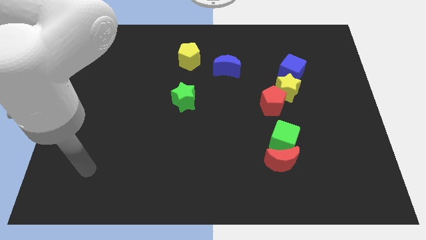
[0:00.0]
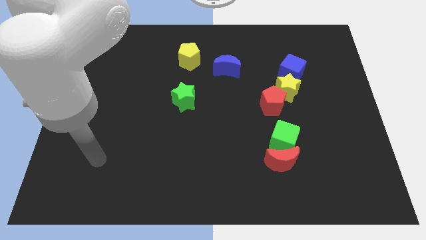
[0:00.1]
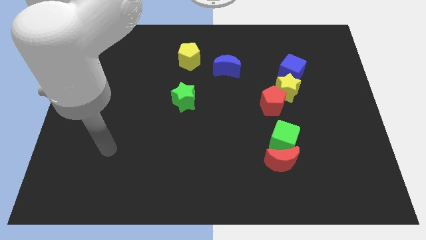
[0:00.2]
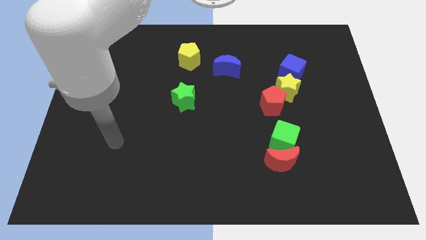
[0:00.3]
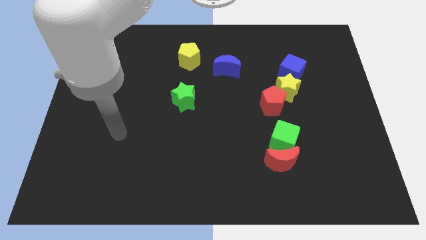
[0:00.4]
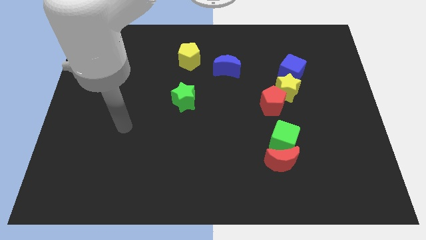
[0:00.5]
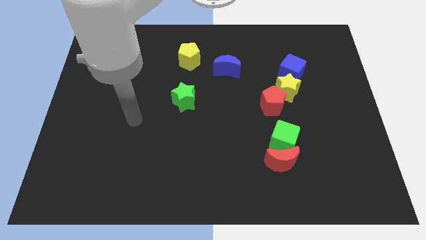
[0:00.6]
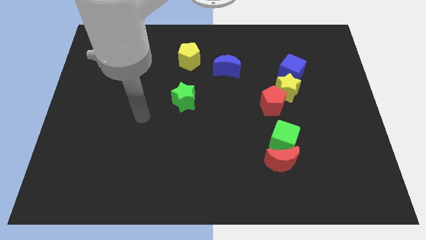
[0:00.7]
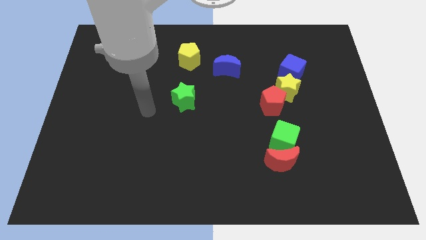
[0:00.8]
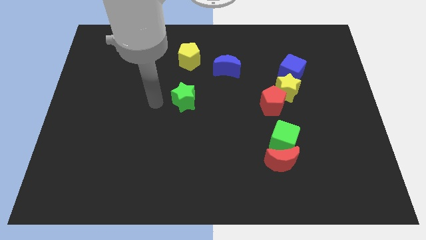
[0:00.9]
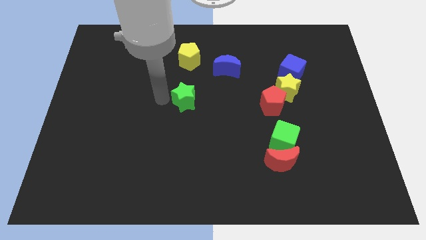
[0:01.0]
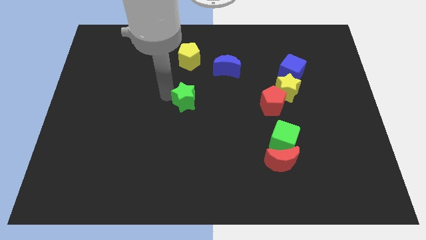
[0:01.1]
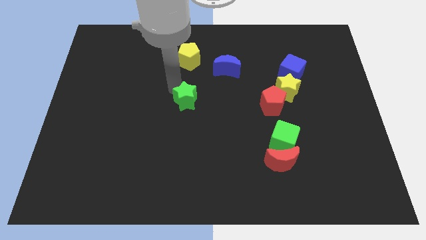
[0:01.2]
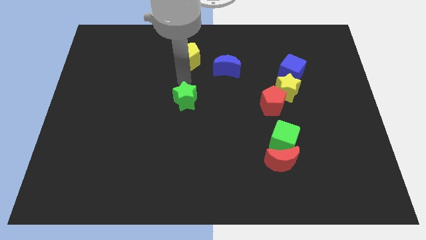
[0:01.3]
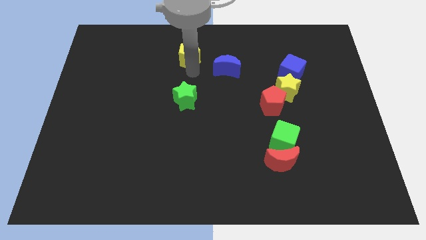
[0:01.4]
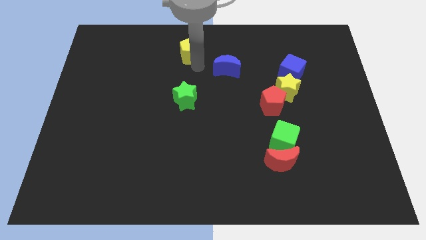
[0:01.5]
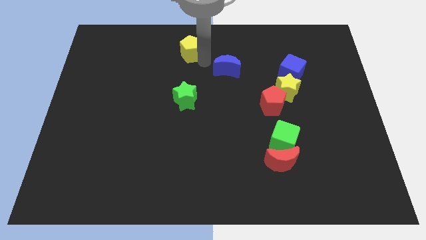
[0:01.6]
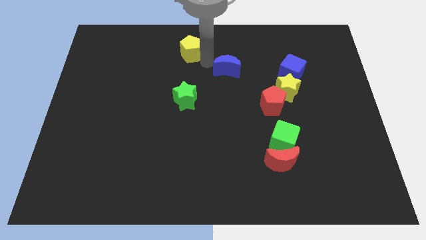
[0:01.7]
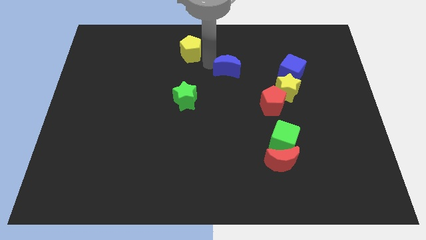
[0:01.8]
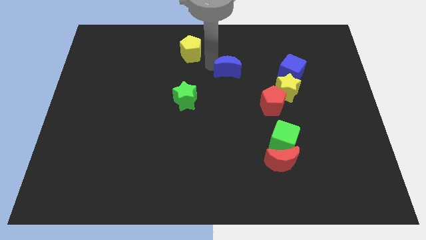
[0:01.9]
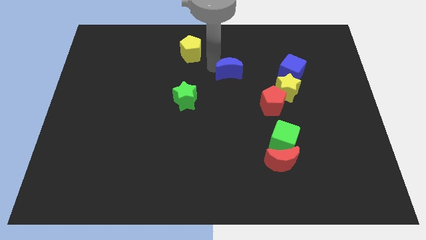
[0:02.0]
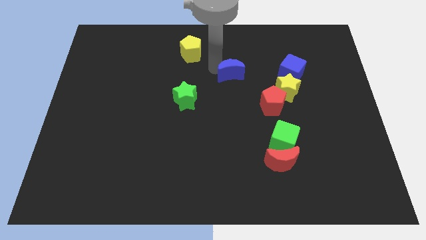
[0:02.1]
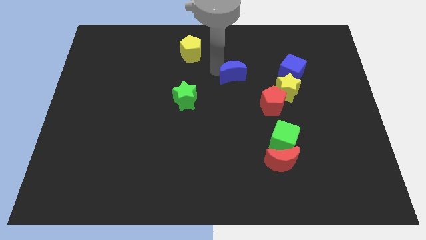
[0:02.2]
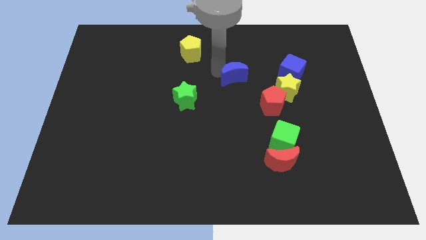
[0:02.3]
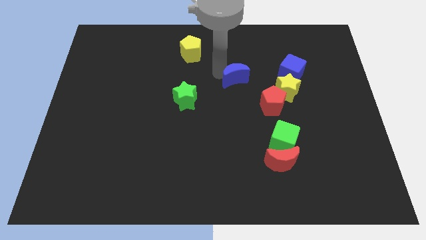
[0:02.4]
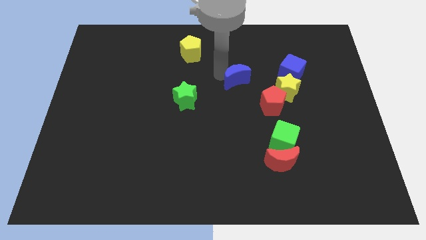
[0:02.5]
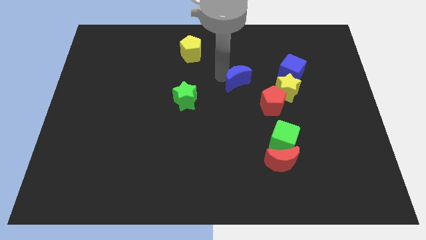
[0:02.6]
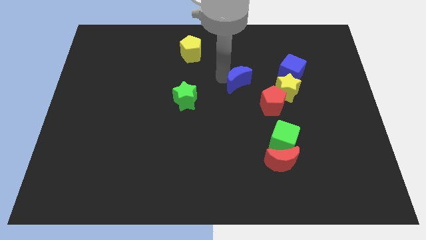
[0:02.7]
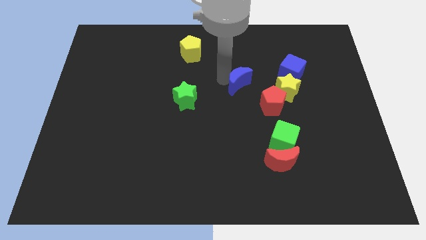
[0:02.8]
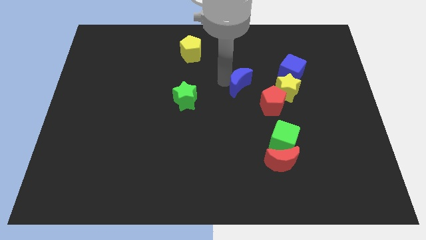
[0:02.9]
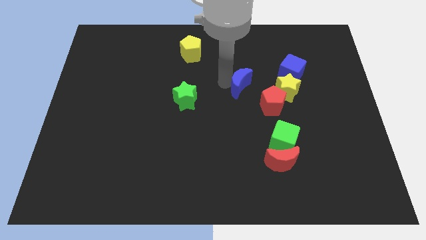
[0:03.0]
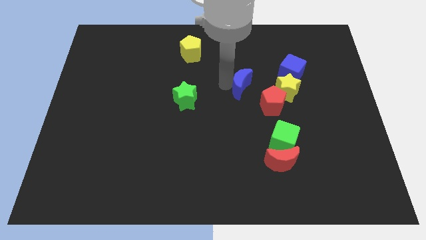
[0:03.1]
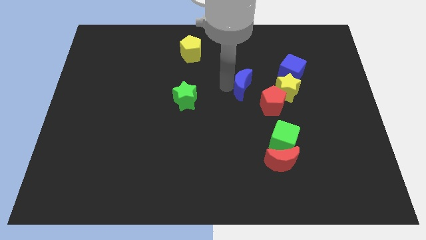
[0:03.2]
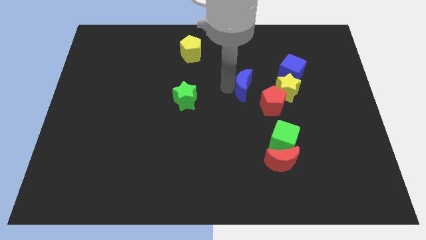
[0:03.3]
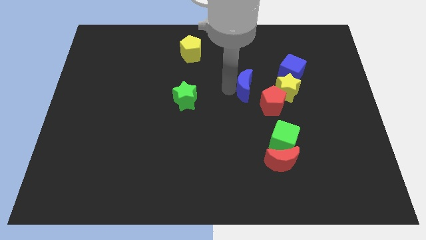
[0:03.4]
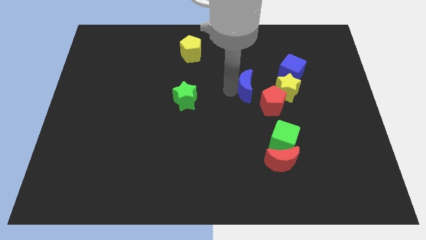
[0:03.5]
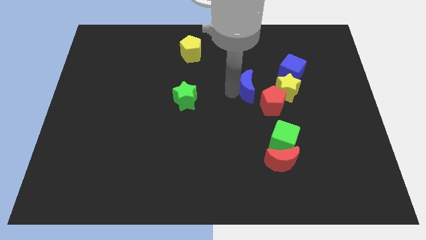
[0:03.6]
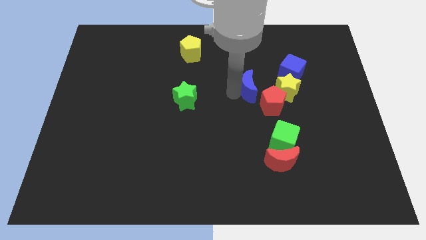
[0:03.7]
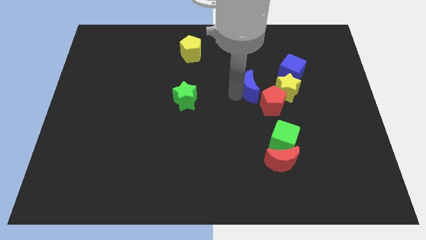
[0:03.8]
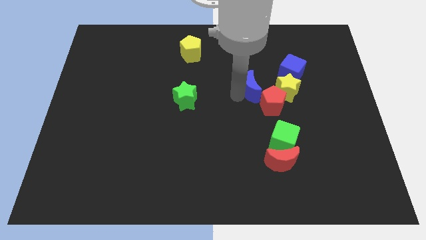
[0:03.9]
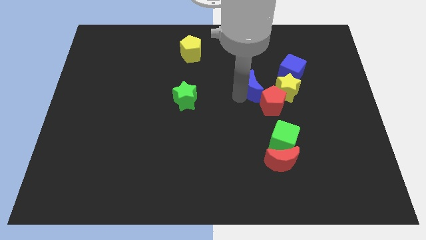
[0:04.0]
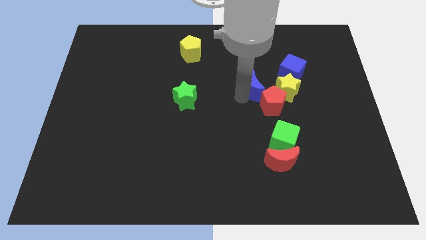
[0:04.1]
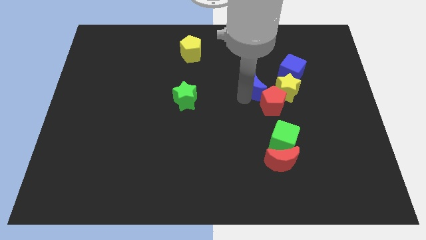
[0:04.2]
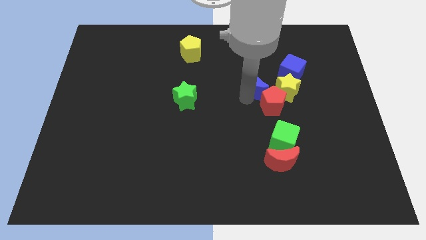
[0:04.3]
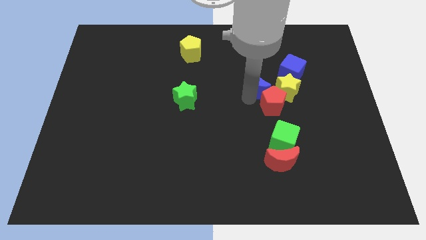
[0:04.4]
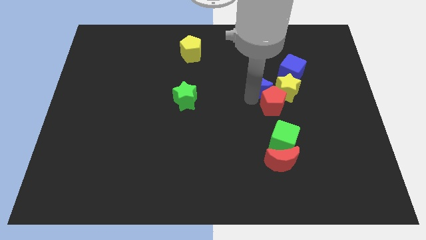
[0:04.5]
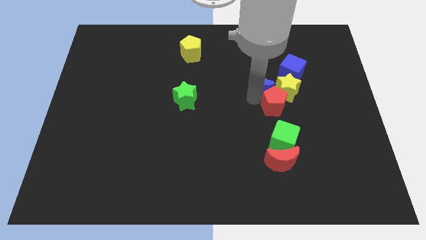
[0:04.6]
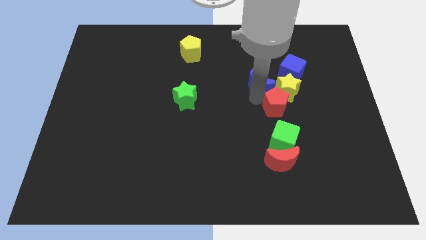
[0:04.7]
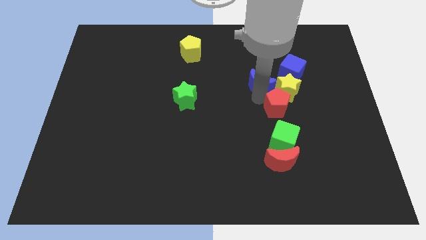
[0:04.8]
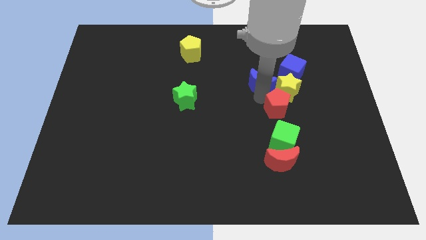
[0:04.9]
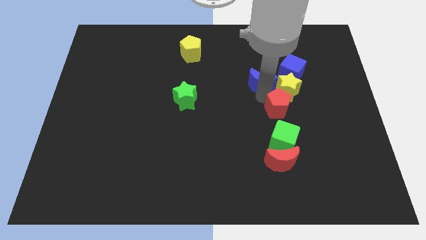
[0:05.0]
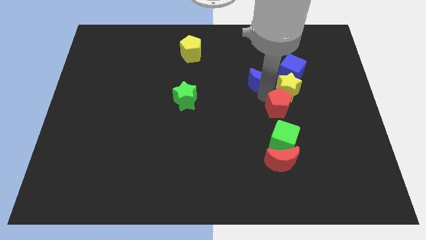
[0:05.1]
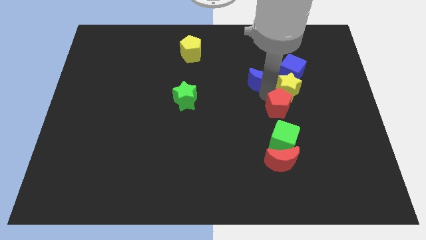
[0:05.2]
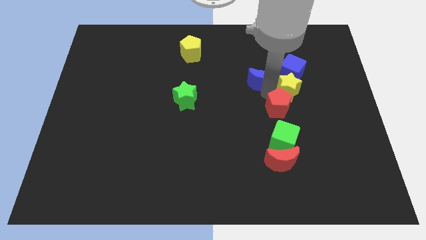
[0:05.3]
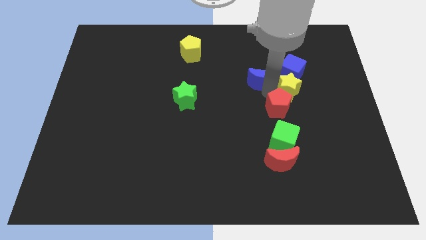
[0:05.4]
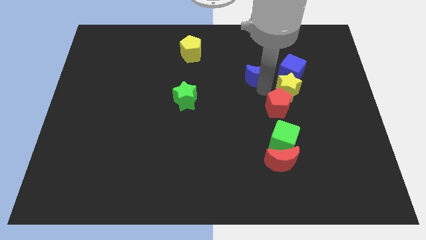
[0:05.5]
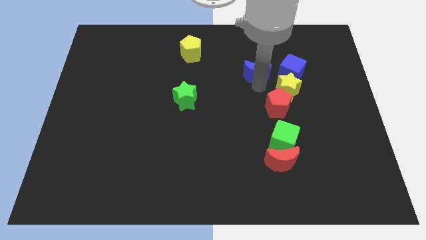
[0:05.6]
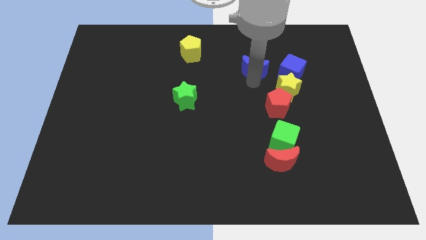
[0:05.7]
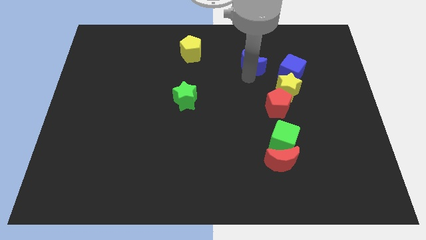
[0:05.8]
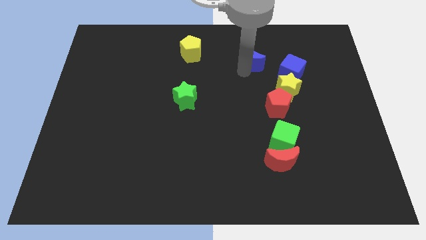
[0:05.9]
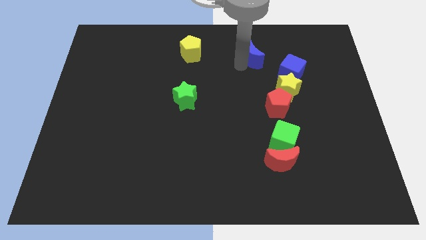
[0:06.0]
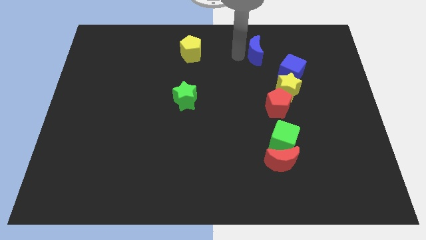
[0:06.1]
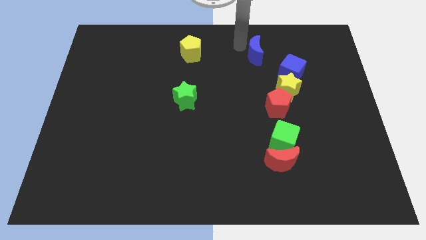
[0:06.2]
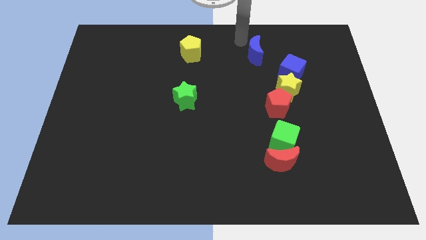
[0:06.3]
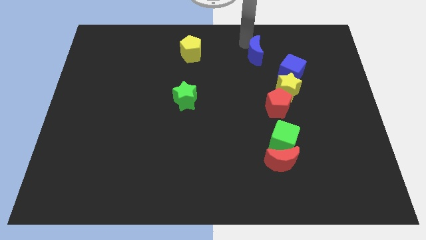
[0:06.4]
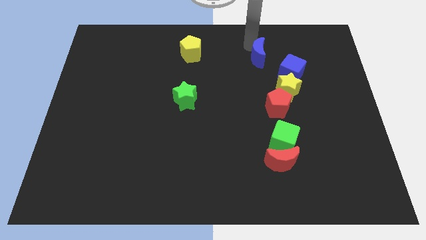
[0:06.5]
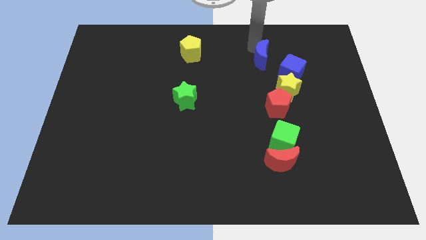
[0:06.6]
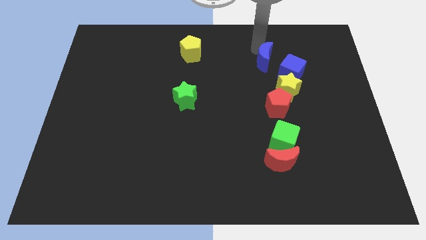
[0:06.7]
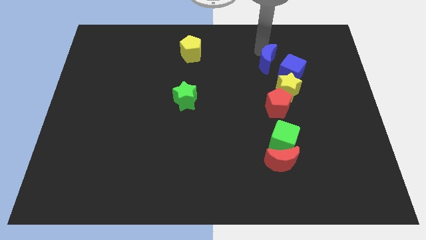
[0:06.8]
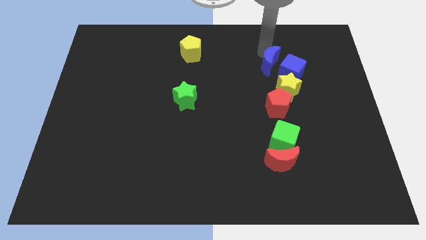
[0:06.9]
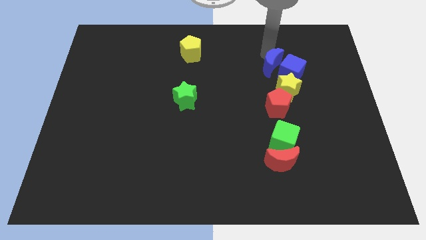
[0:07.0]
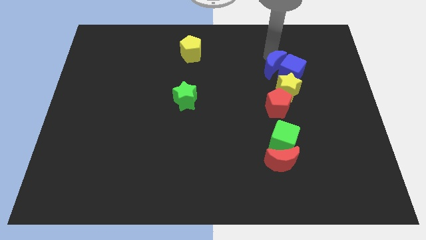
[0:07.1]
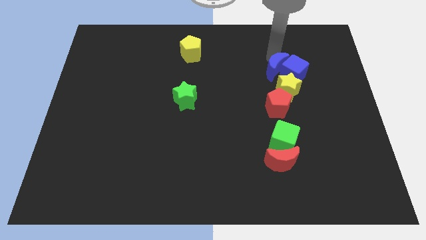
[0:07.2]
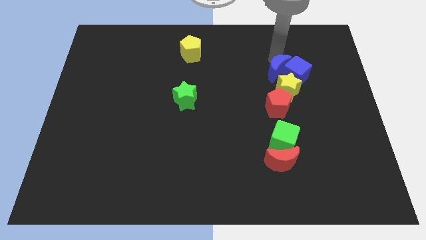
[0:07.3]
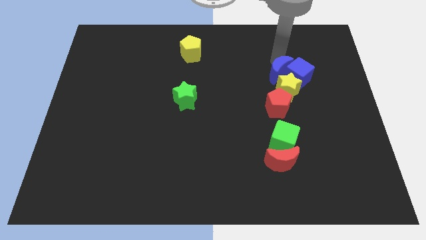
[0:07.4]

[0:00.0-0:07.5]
move the blue moon close to the yellow star
